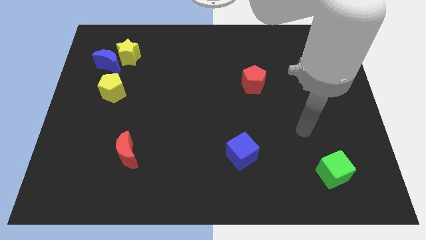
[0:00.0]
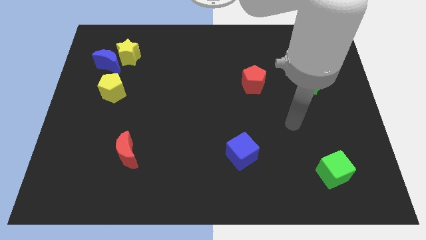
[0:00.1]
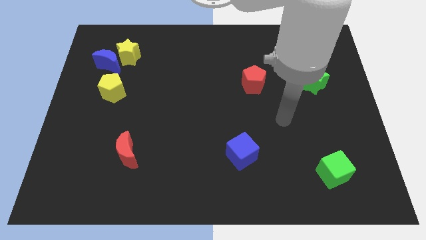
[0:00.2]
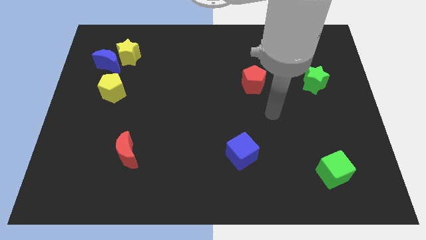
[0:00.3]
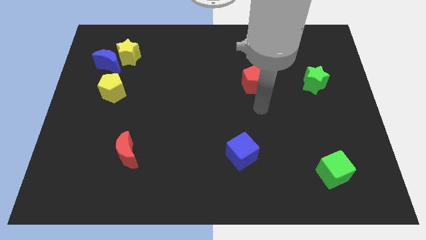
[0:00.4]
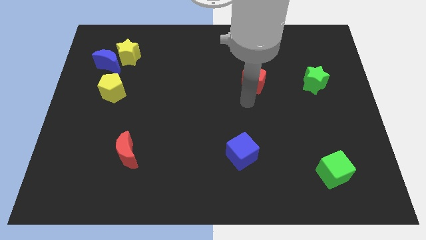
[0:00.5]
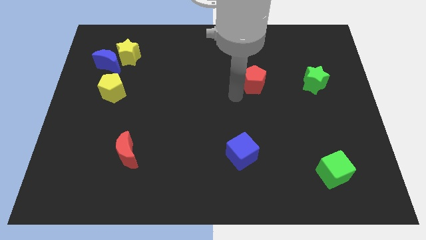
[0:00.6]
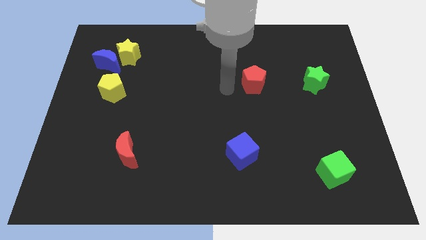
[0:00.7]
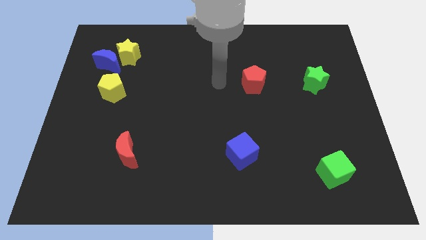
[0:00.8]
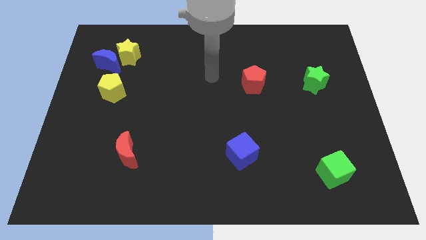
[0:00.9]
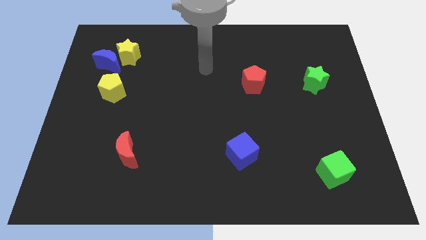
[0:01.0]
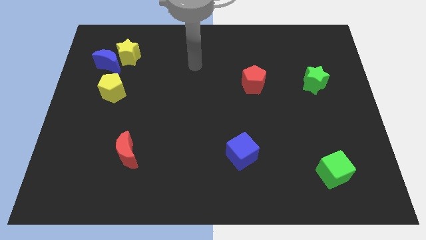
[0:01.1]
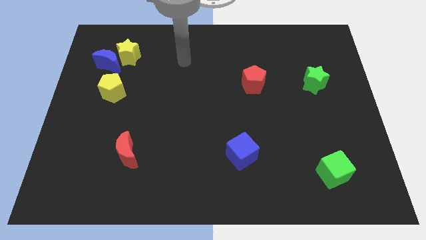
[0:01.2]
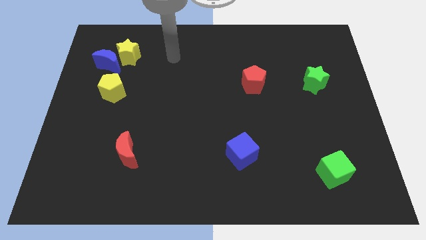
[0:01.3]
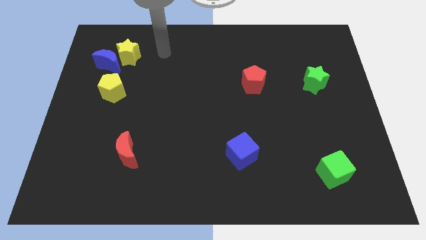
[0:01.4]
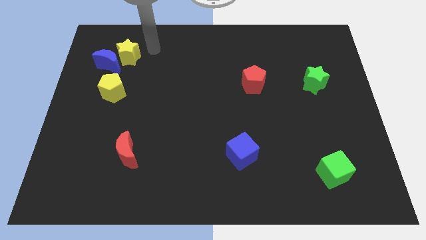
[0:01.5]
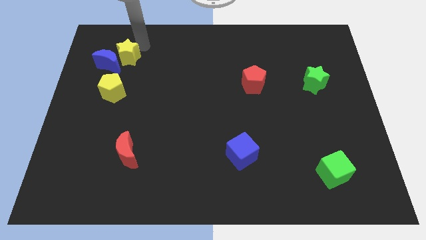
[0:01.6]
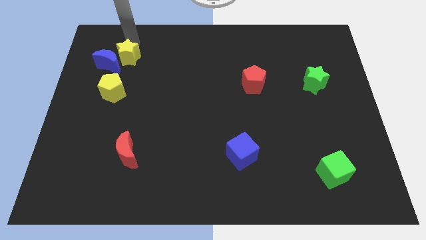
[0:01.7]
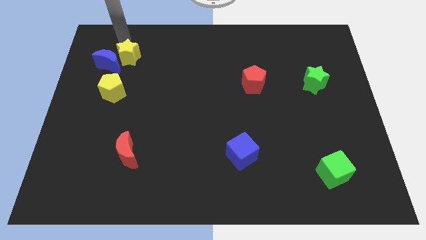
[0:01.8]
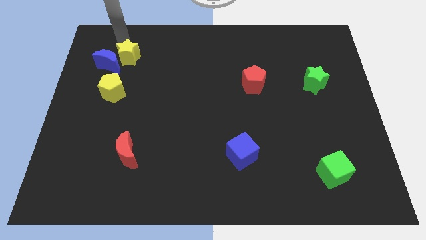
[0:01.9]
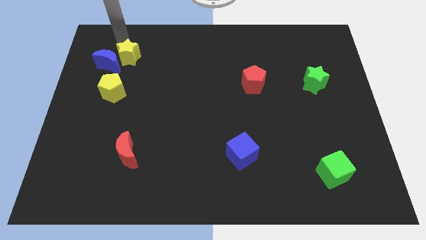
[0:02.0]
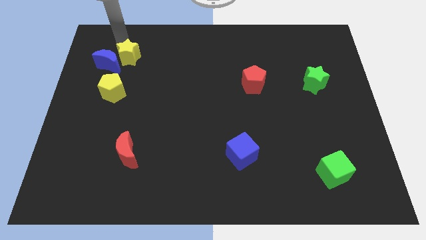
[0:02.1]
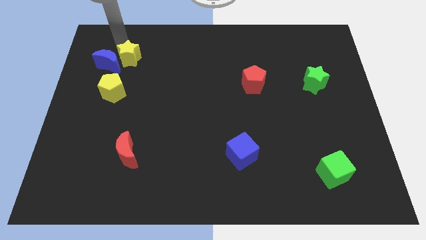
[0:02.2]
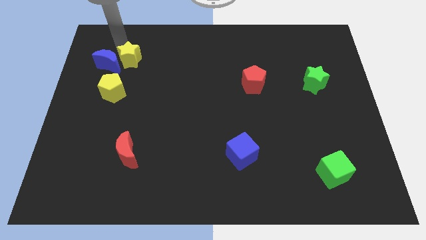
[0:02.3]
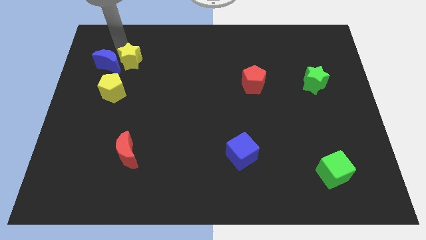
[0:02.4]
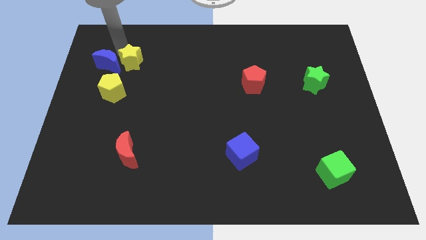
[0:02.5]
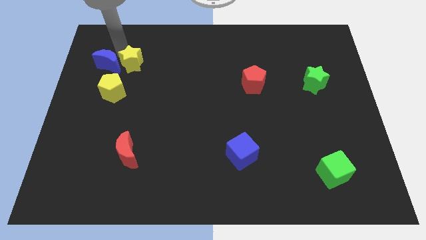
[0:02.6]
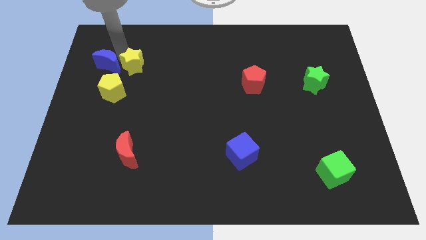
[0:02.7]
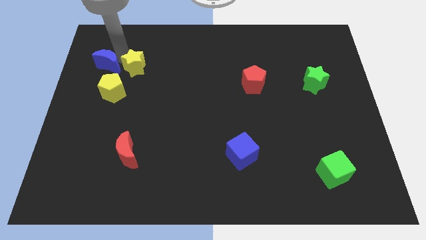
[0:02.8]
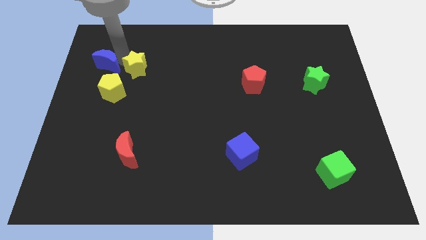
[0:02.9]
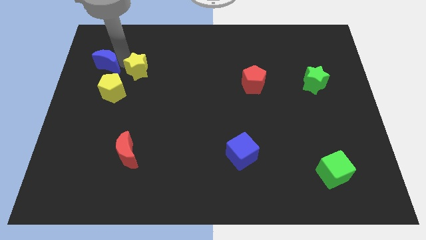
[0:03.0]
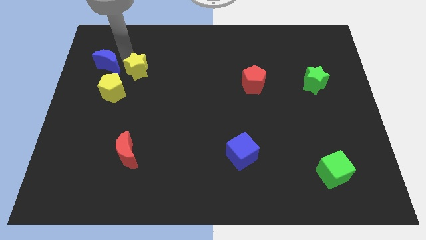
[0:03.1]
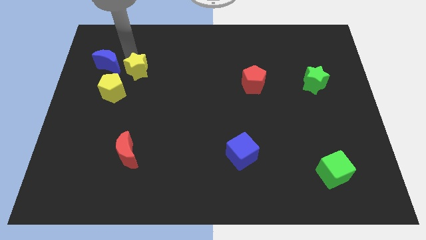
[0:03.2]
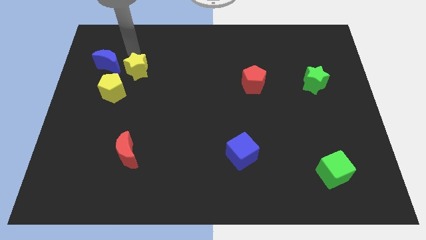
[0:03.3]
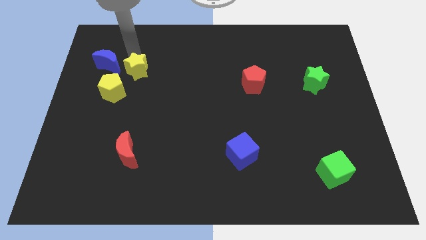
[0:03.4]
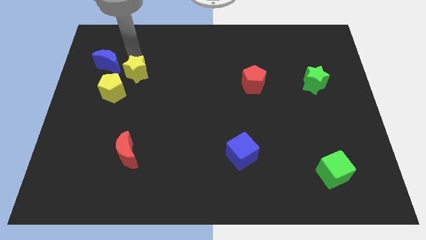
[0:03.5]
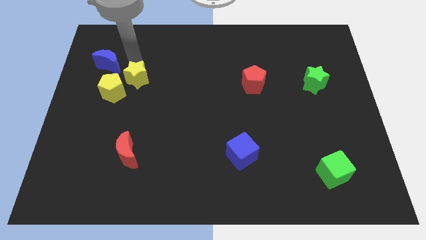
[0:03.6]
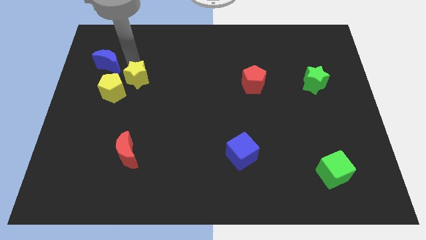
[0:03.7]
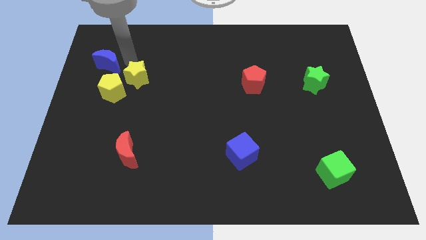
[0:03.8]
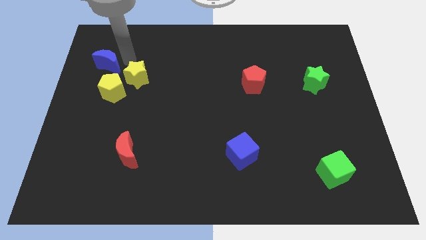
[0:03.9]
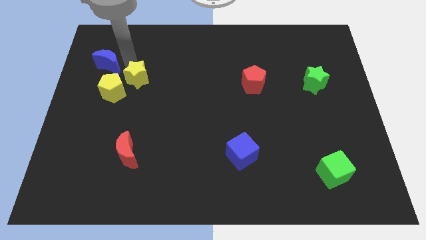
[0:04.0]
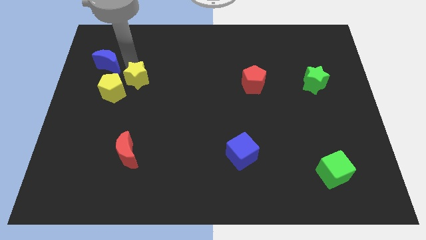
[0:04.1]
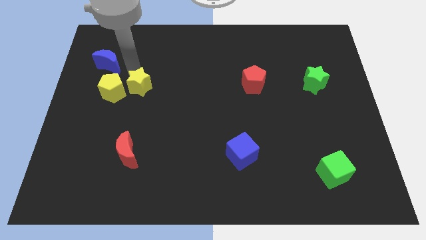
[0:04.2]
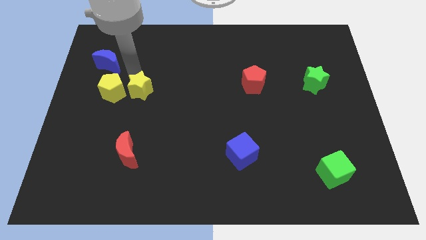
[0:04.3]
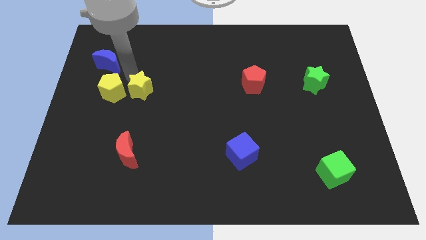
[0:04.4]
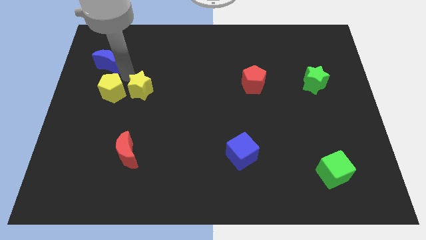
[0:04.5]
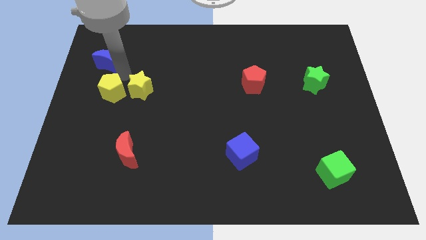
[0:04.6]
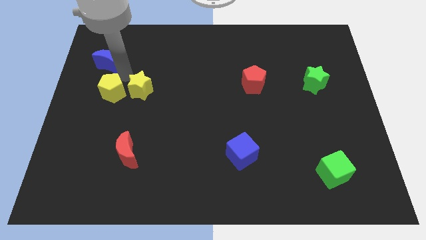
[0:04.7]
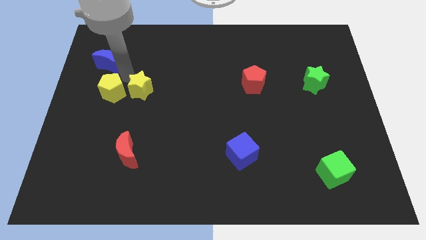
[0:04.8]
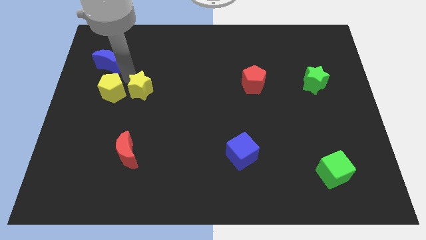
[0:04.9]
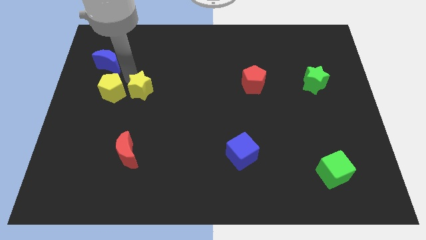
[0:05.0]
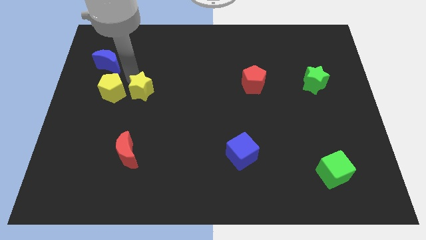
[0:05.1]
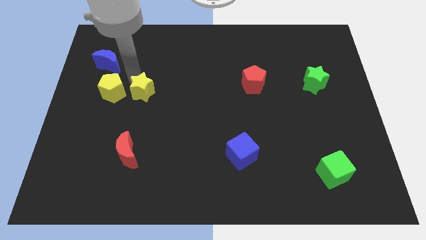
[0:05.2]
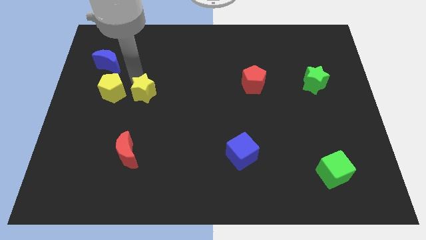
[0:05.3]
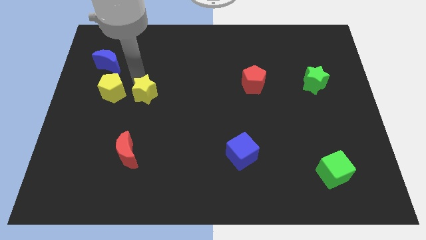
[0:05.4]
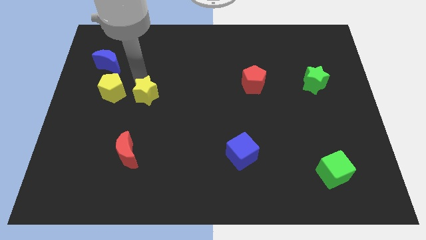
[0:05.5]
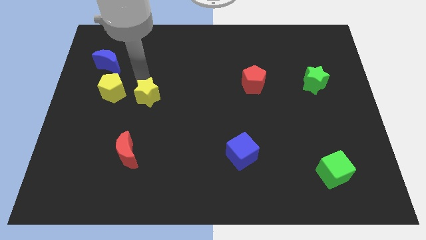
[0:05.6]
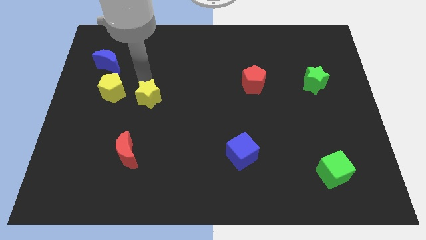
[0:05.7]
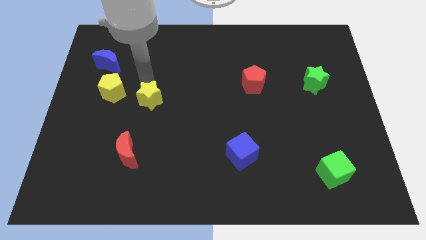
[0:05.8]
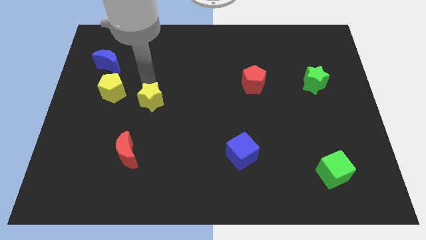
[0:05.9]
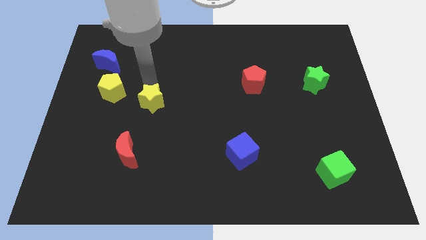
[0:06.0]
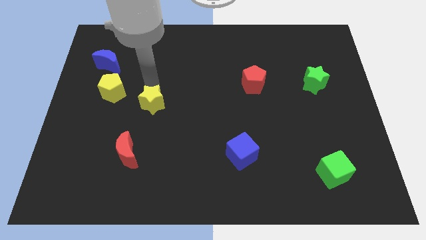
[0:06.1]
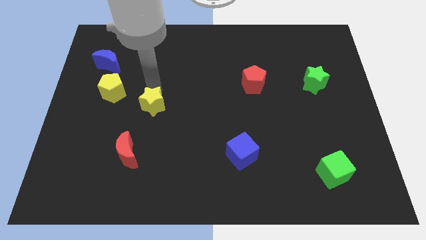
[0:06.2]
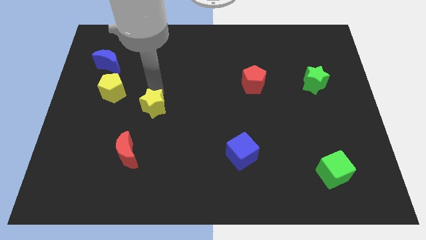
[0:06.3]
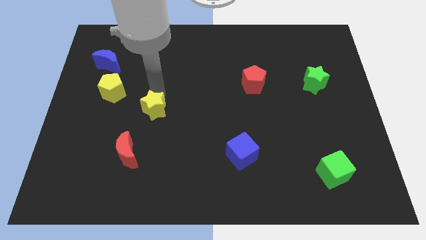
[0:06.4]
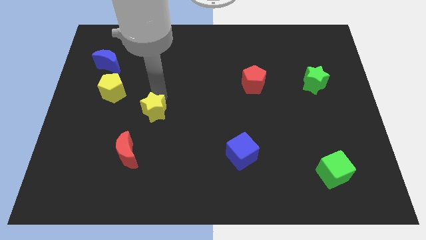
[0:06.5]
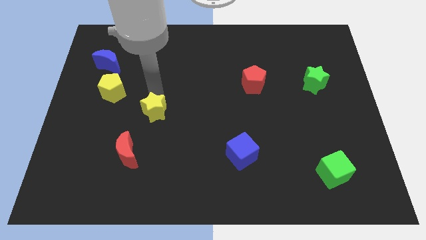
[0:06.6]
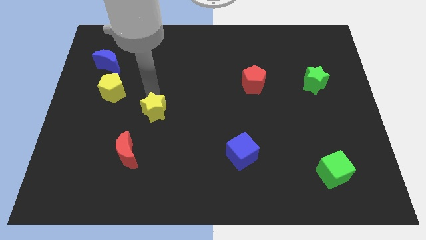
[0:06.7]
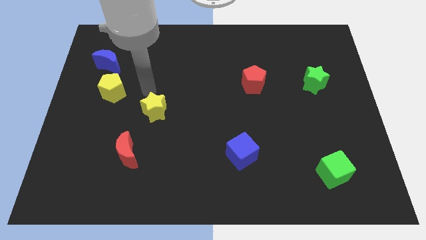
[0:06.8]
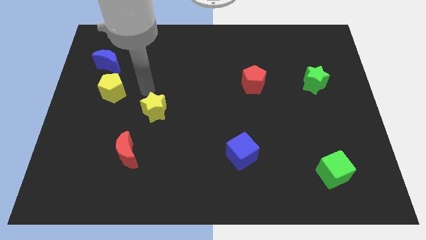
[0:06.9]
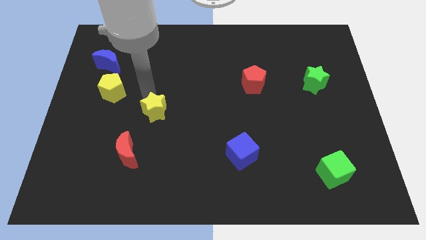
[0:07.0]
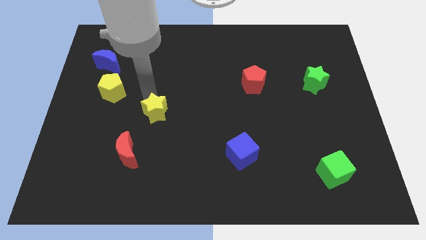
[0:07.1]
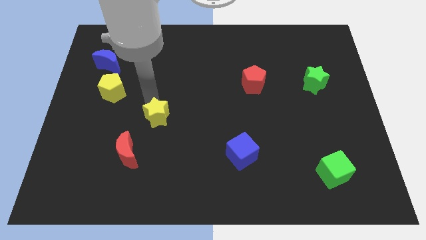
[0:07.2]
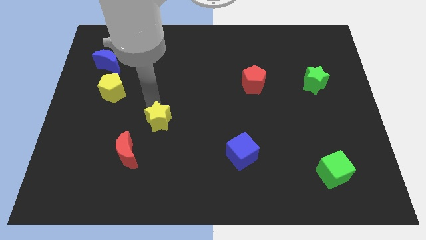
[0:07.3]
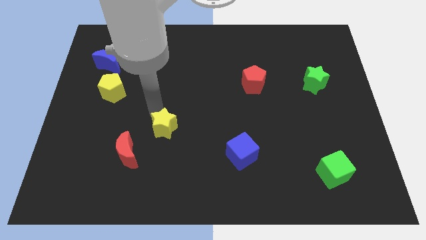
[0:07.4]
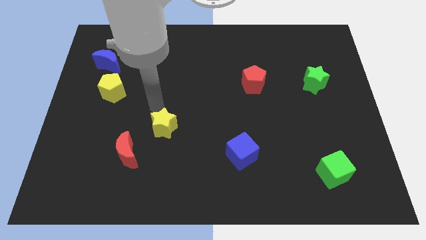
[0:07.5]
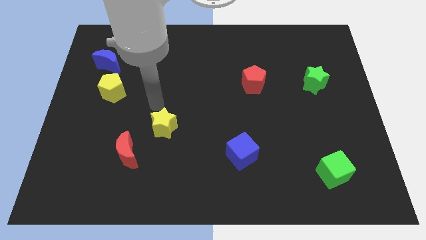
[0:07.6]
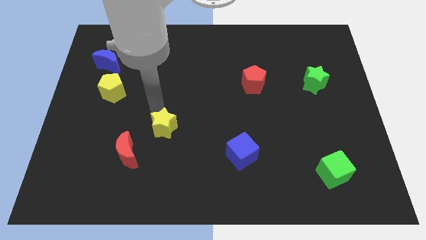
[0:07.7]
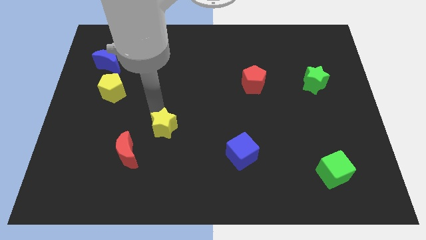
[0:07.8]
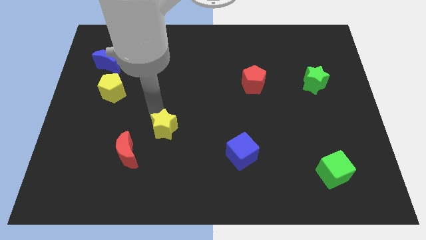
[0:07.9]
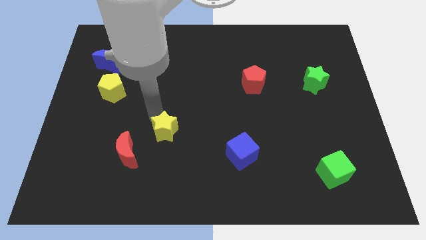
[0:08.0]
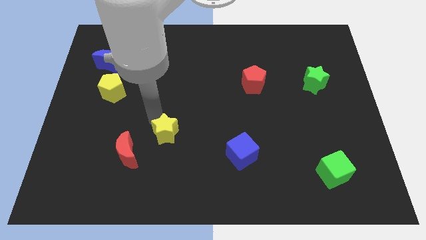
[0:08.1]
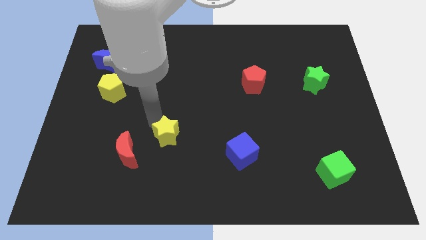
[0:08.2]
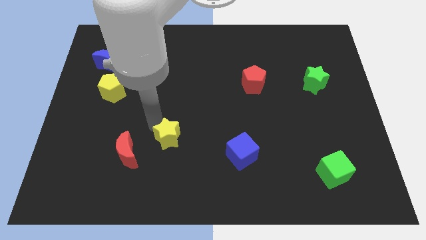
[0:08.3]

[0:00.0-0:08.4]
move the yellow star right of the red moon
